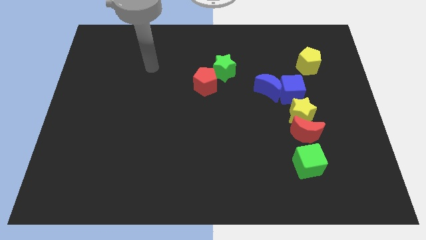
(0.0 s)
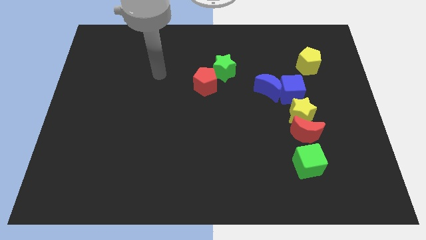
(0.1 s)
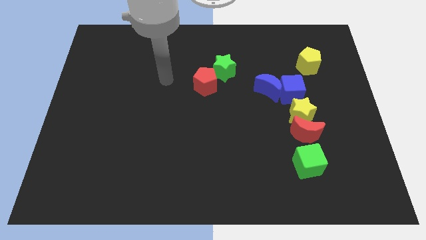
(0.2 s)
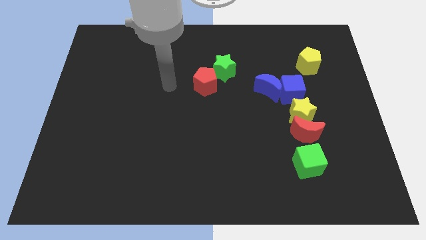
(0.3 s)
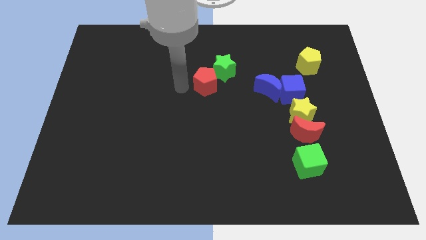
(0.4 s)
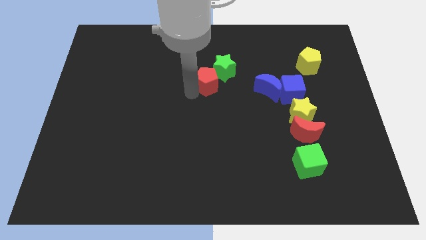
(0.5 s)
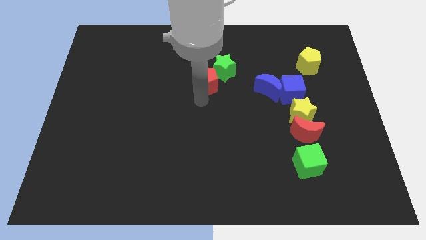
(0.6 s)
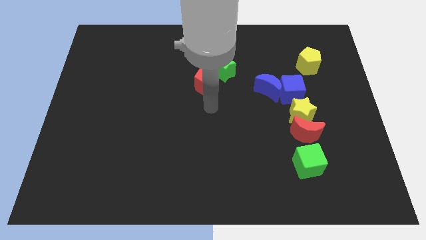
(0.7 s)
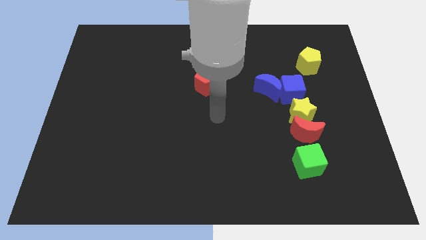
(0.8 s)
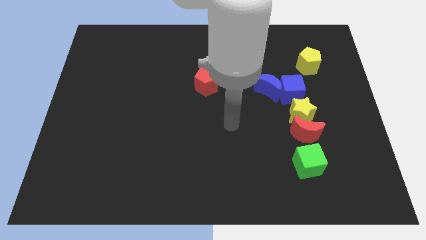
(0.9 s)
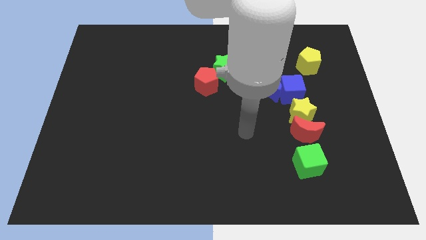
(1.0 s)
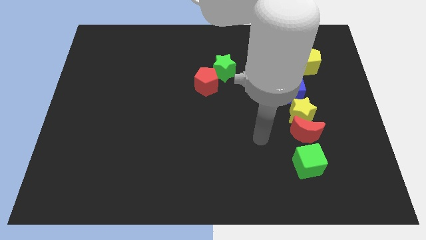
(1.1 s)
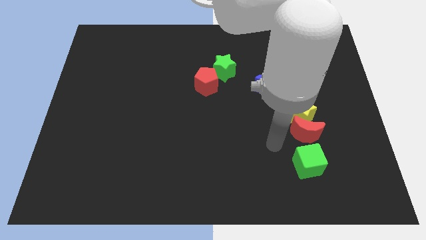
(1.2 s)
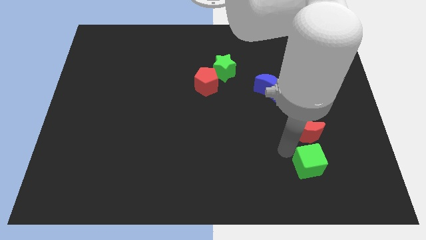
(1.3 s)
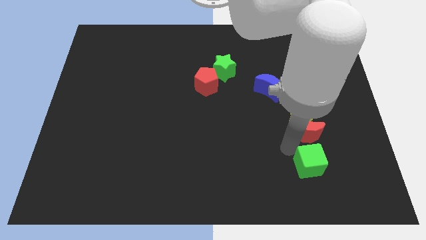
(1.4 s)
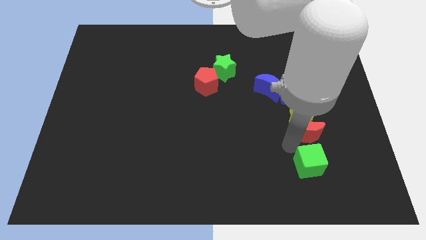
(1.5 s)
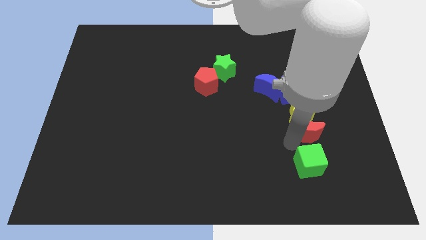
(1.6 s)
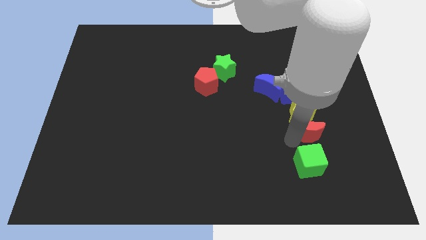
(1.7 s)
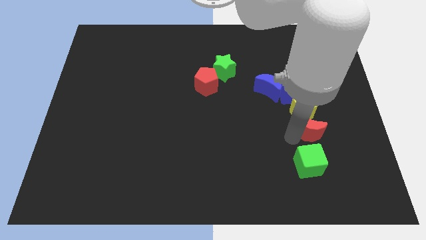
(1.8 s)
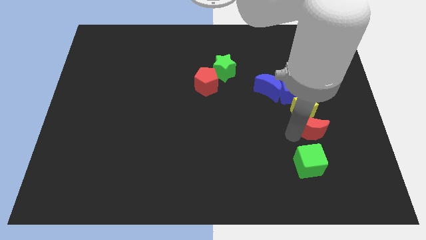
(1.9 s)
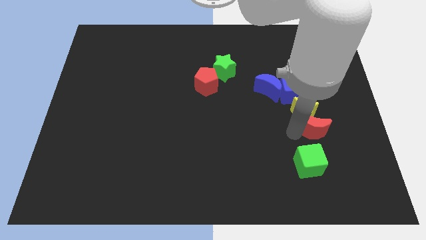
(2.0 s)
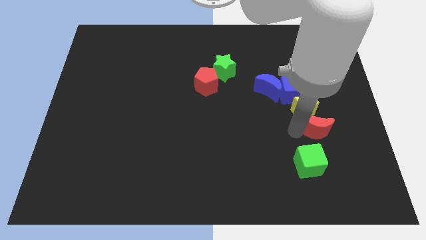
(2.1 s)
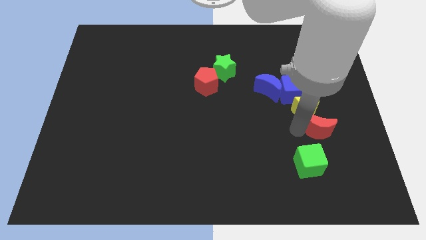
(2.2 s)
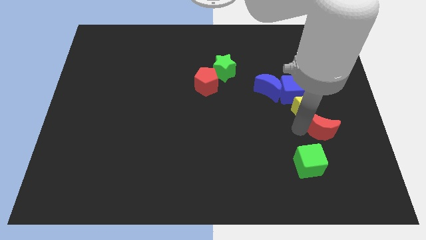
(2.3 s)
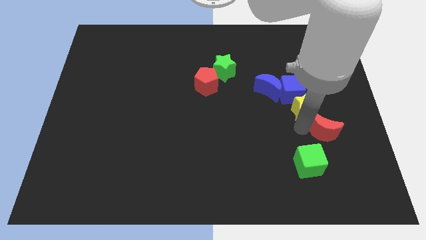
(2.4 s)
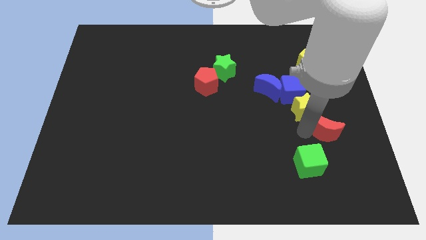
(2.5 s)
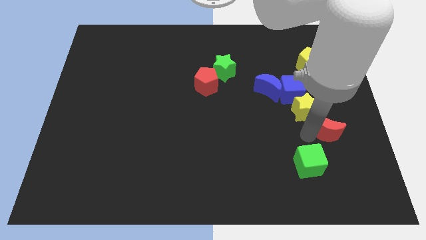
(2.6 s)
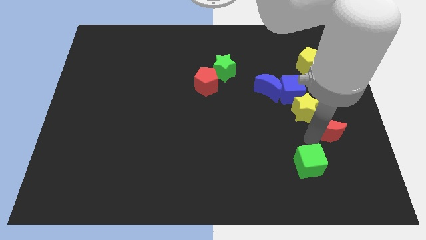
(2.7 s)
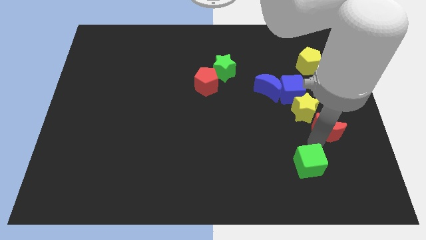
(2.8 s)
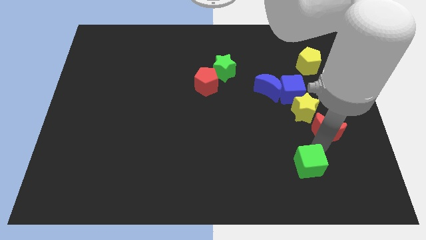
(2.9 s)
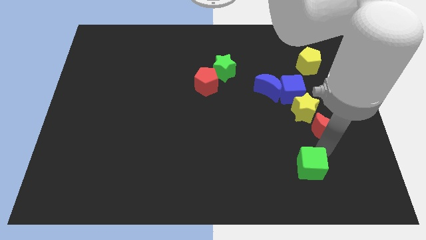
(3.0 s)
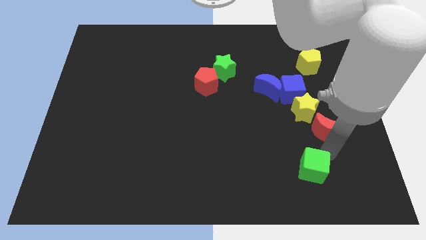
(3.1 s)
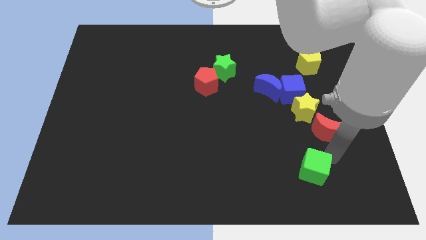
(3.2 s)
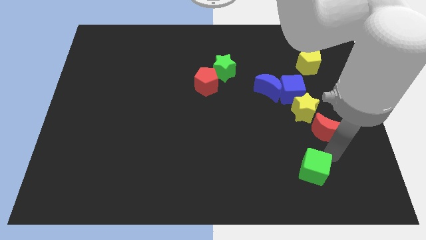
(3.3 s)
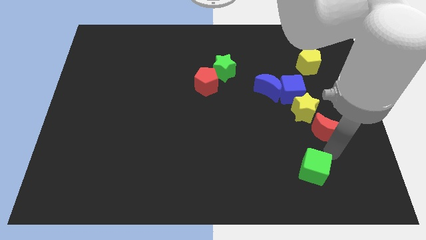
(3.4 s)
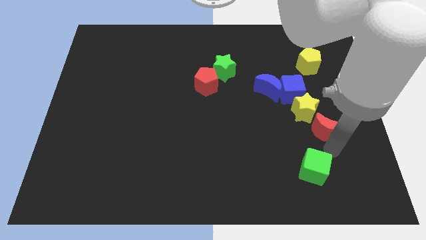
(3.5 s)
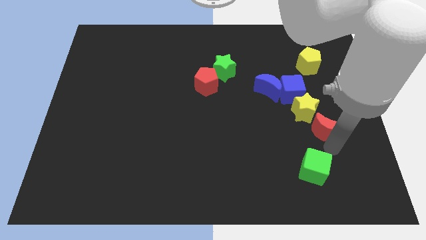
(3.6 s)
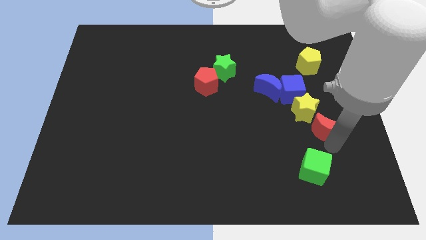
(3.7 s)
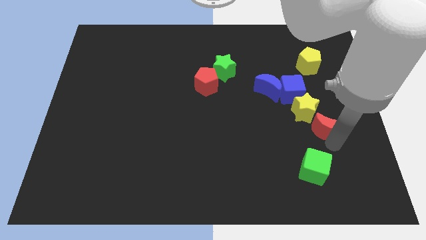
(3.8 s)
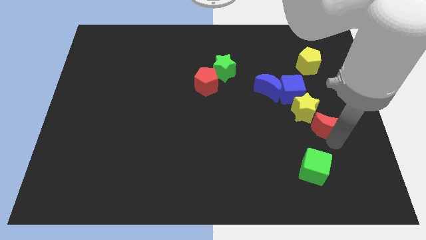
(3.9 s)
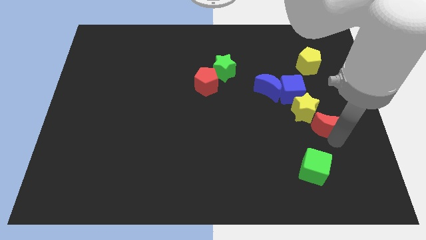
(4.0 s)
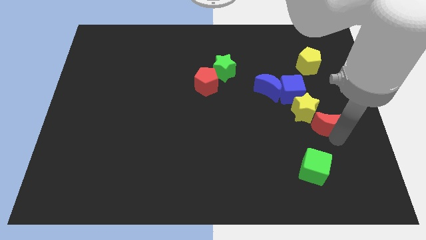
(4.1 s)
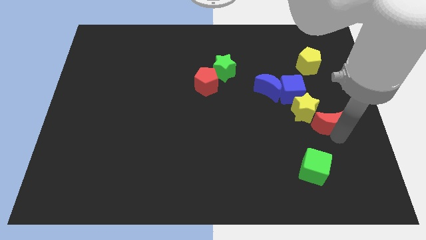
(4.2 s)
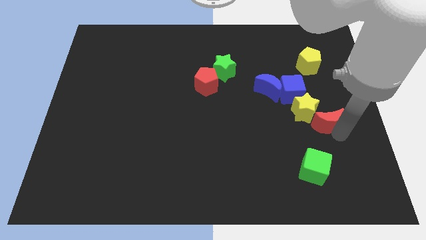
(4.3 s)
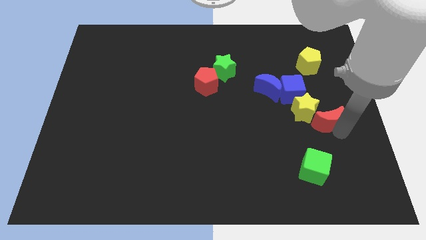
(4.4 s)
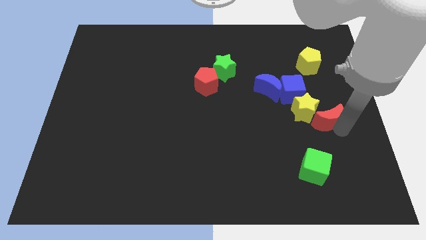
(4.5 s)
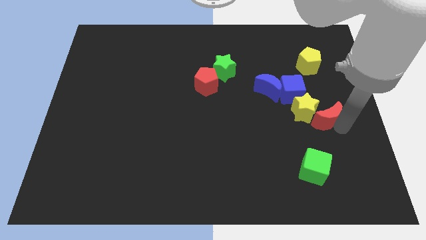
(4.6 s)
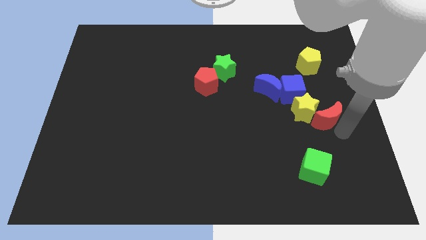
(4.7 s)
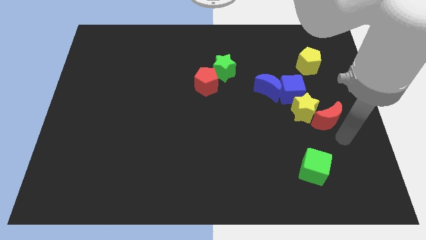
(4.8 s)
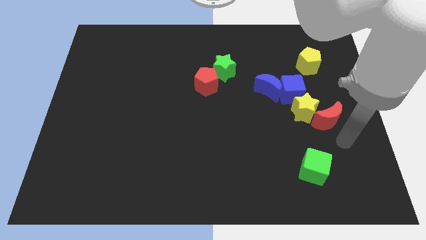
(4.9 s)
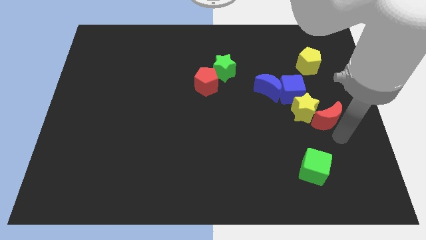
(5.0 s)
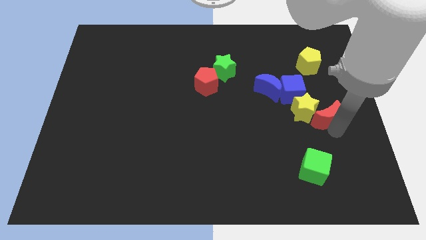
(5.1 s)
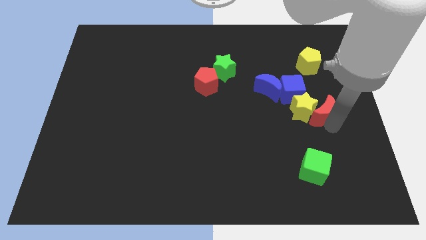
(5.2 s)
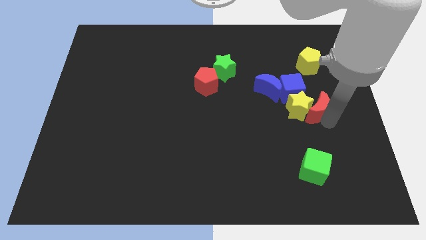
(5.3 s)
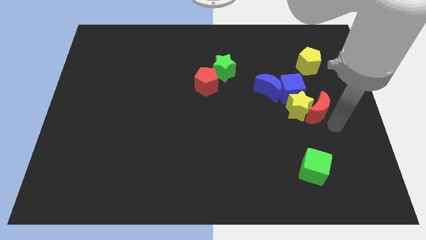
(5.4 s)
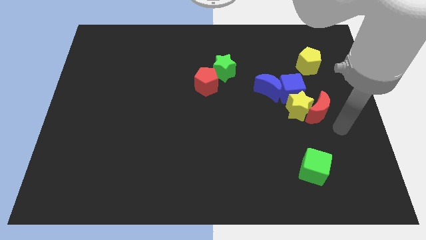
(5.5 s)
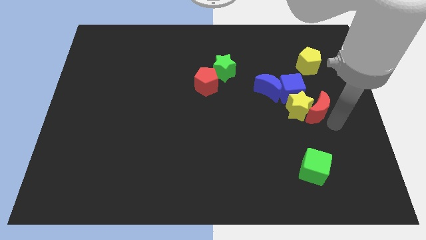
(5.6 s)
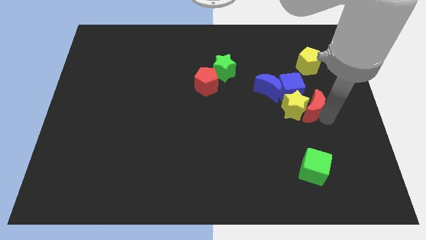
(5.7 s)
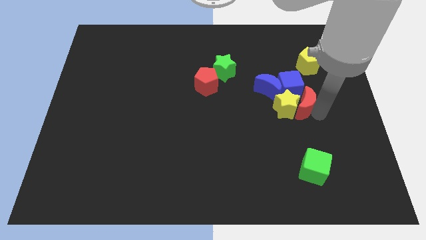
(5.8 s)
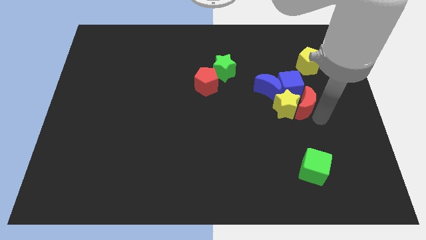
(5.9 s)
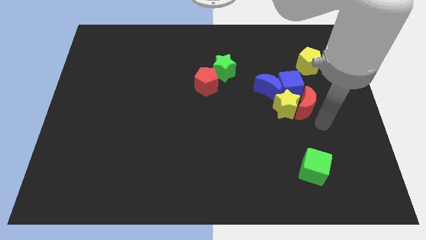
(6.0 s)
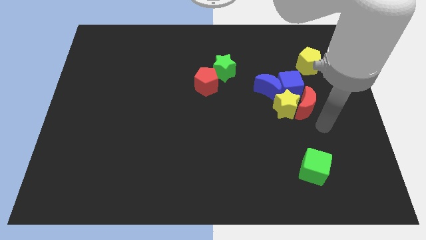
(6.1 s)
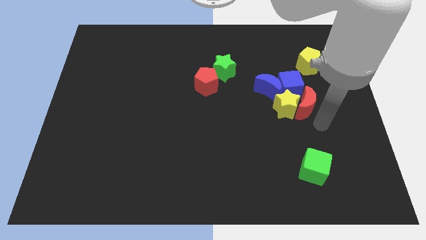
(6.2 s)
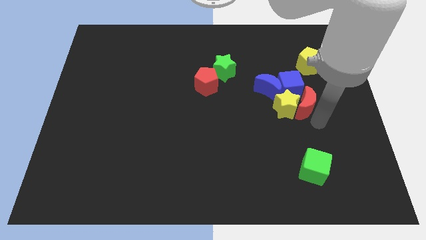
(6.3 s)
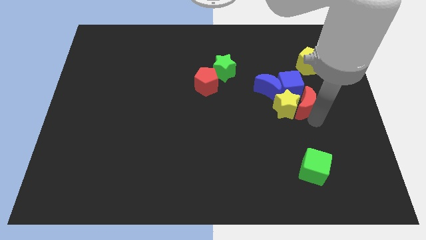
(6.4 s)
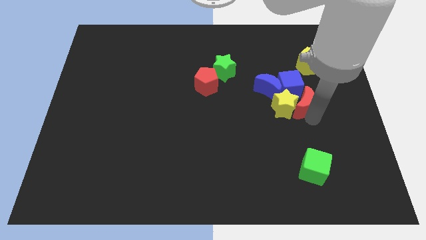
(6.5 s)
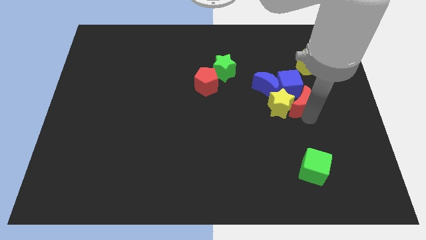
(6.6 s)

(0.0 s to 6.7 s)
slide the red moon close to the blue cube
